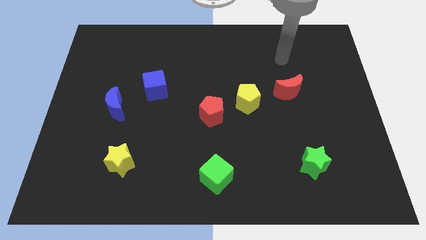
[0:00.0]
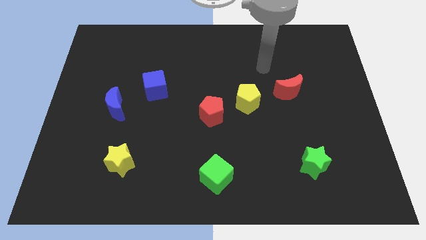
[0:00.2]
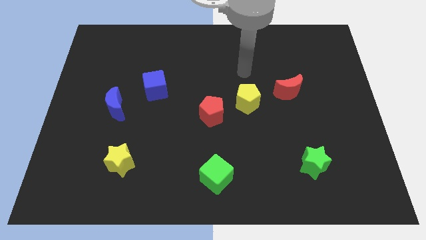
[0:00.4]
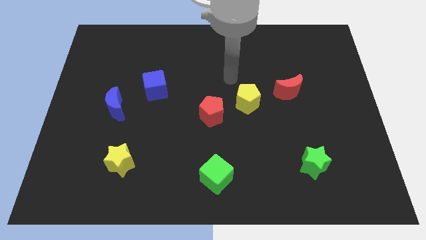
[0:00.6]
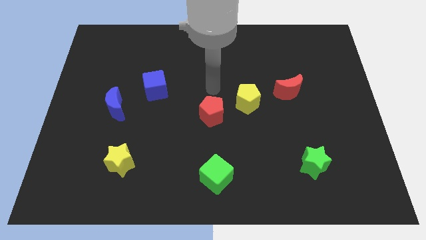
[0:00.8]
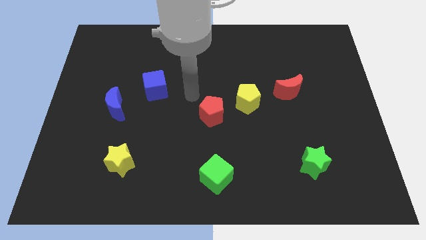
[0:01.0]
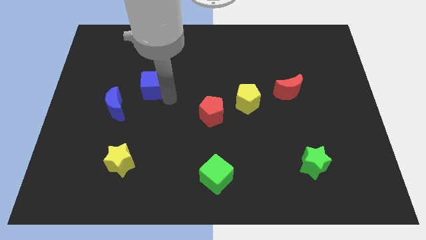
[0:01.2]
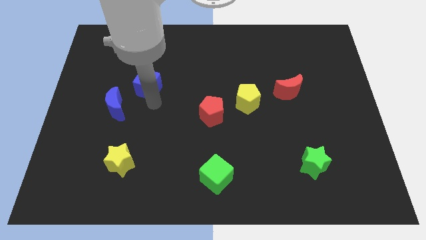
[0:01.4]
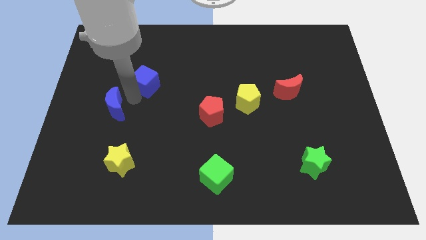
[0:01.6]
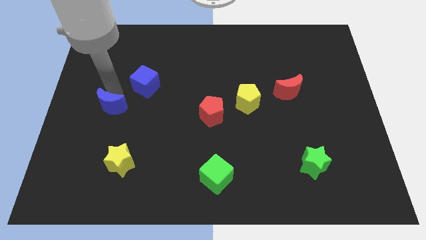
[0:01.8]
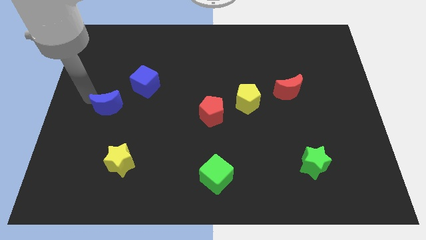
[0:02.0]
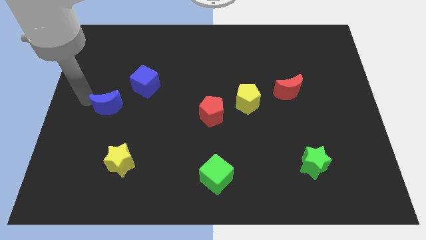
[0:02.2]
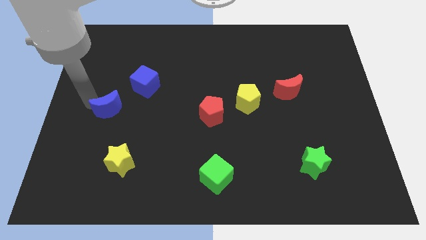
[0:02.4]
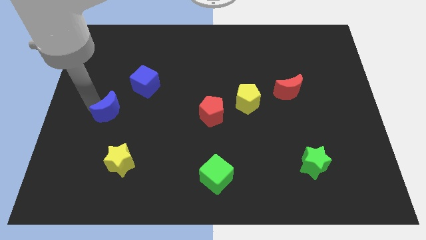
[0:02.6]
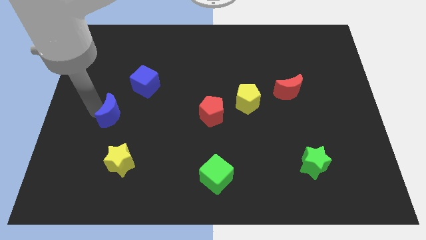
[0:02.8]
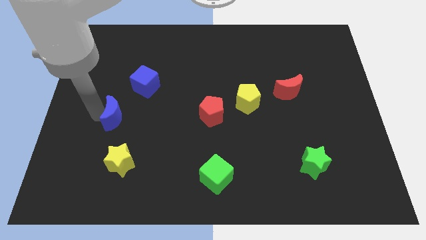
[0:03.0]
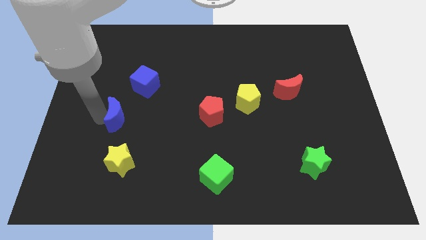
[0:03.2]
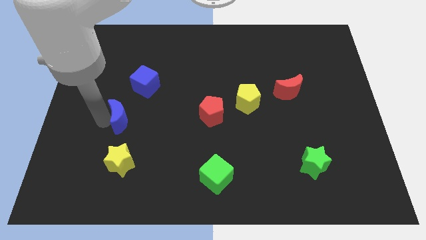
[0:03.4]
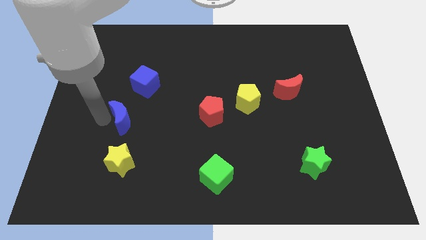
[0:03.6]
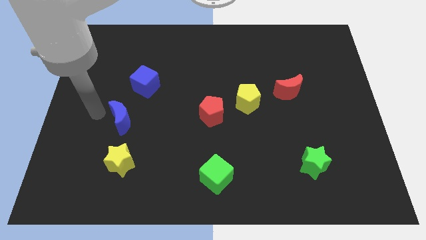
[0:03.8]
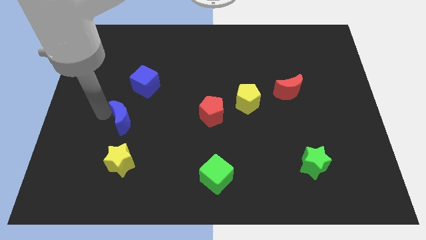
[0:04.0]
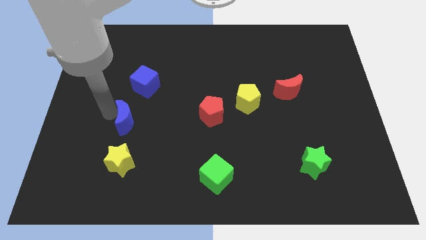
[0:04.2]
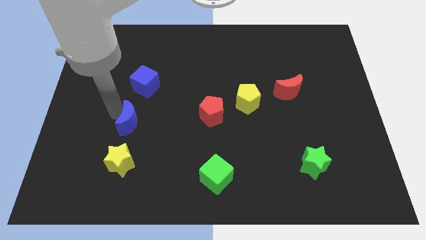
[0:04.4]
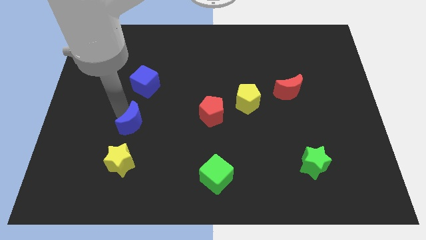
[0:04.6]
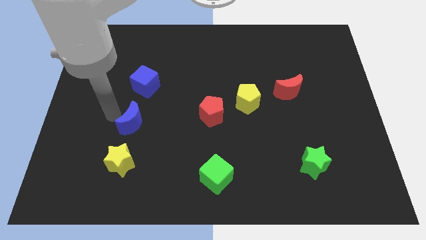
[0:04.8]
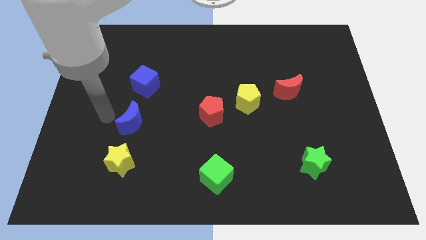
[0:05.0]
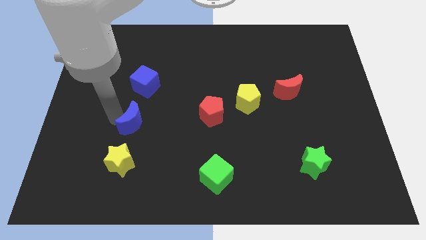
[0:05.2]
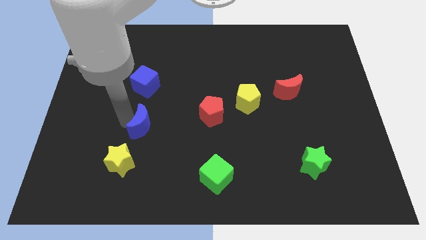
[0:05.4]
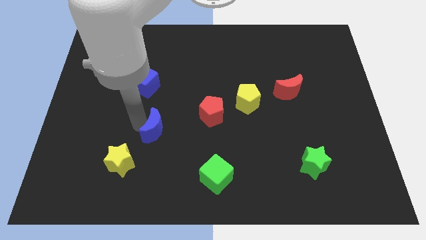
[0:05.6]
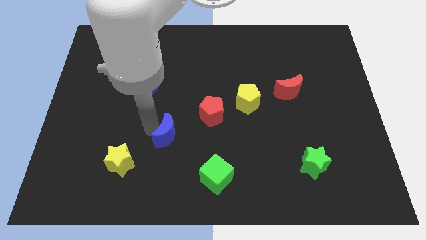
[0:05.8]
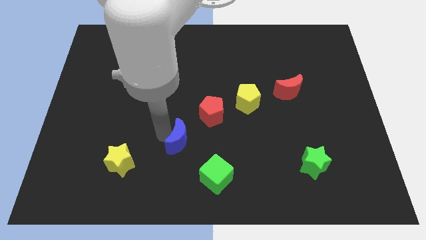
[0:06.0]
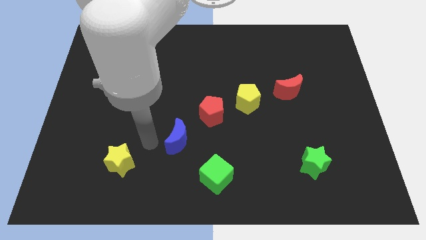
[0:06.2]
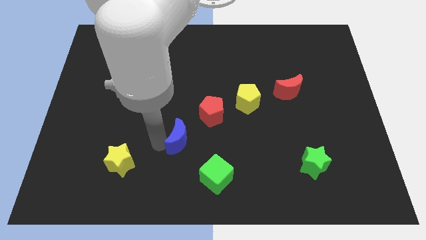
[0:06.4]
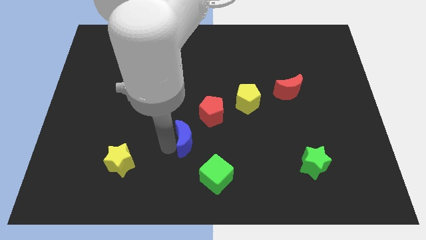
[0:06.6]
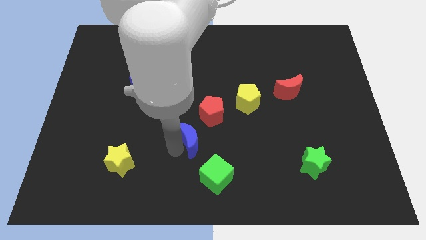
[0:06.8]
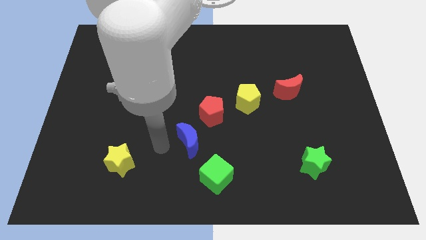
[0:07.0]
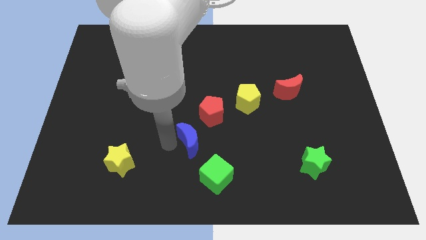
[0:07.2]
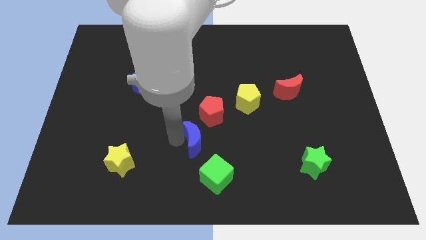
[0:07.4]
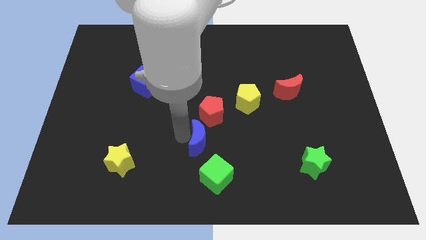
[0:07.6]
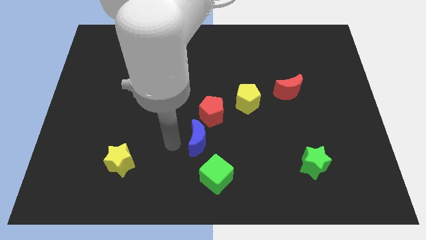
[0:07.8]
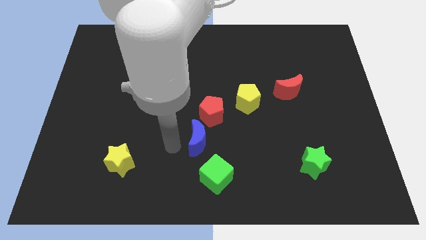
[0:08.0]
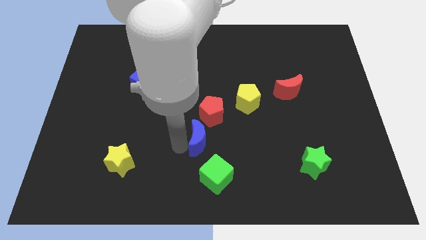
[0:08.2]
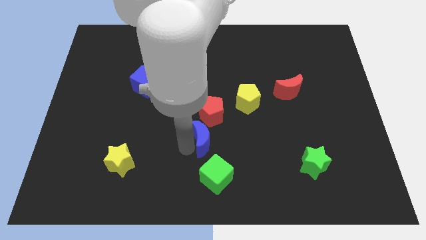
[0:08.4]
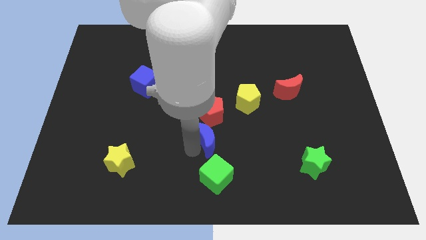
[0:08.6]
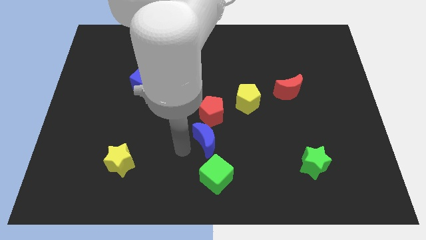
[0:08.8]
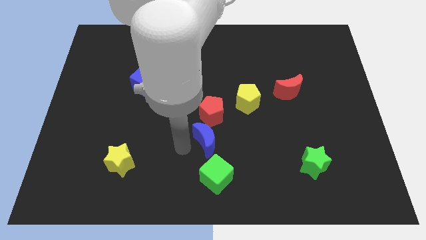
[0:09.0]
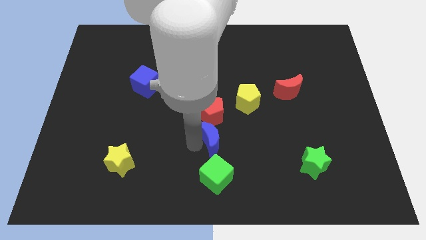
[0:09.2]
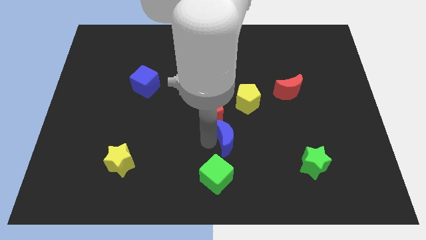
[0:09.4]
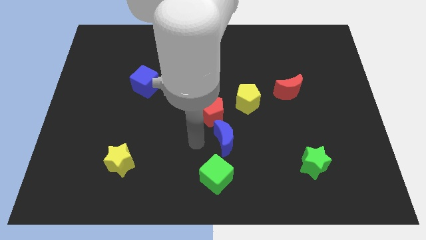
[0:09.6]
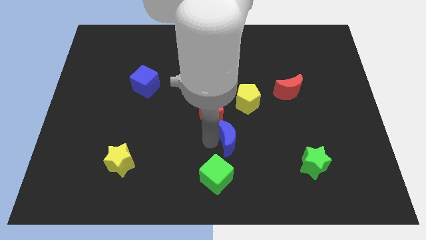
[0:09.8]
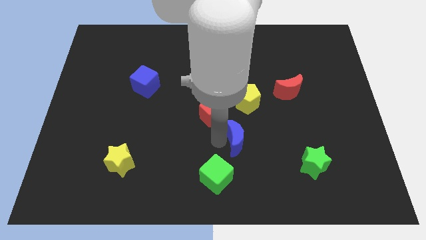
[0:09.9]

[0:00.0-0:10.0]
move the blue moon to the bottom of the yellow pentagon

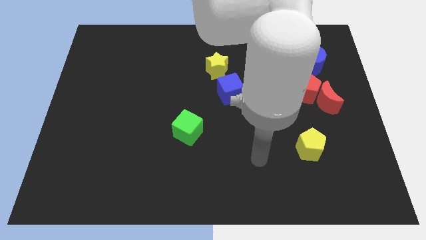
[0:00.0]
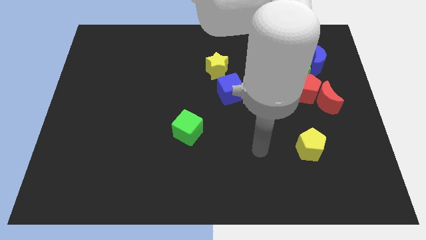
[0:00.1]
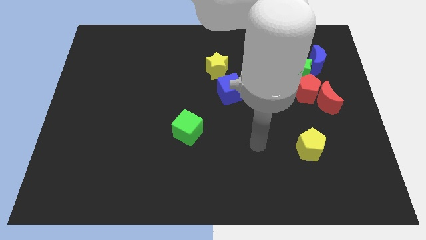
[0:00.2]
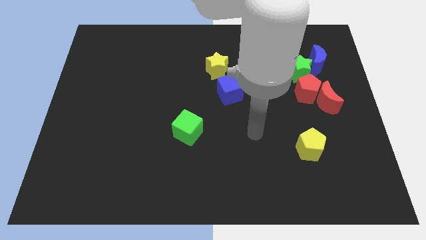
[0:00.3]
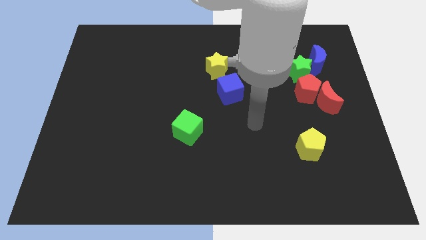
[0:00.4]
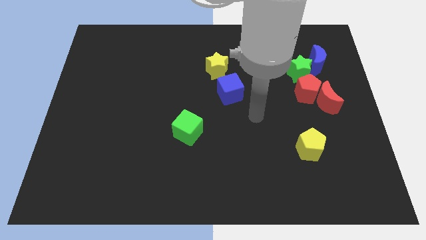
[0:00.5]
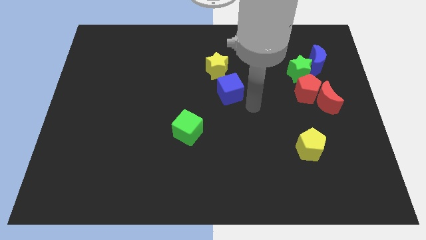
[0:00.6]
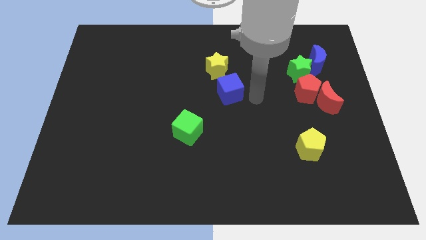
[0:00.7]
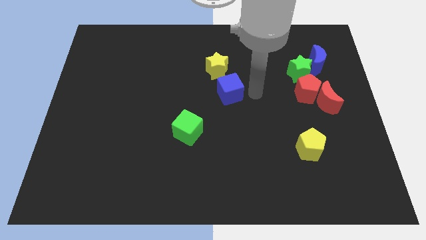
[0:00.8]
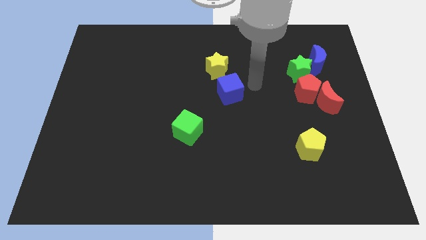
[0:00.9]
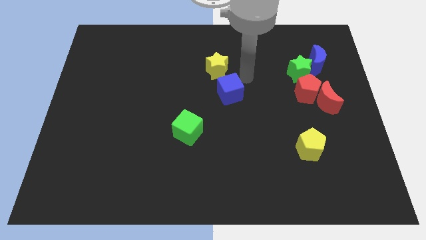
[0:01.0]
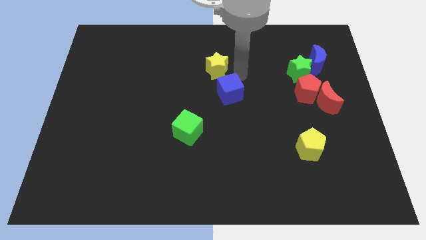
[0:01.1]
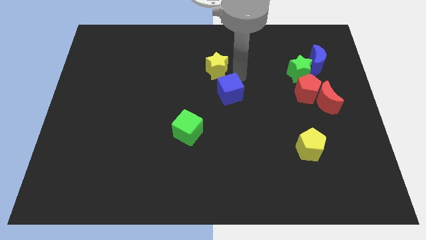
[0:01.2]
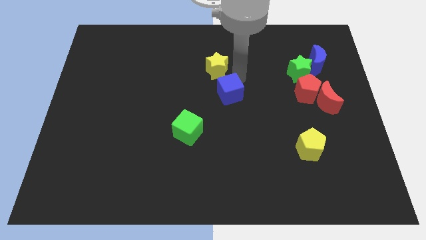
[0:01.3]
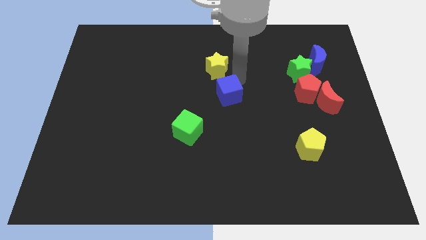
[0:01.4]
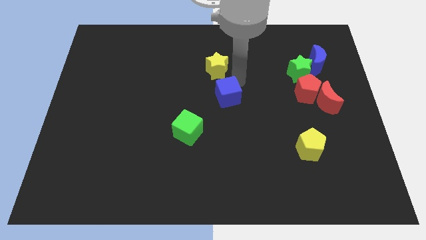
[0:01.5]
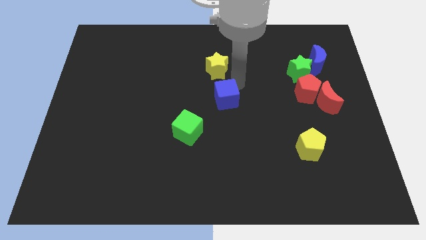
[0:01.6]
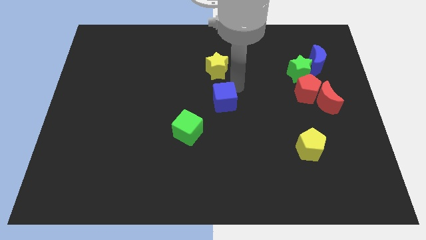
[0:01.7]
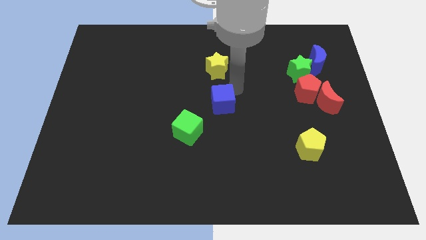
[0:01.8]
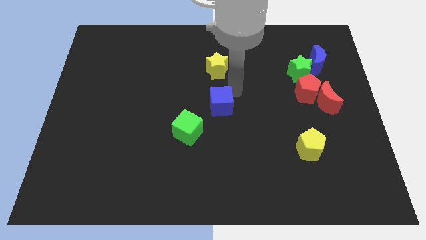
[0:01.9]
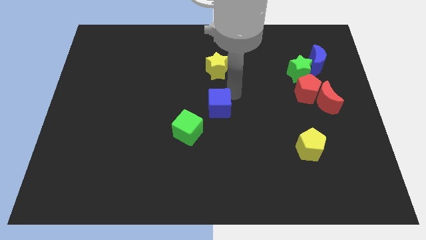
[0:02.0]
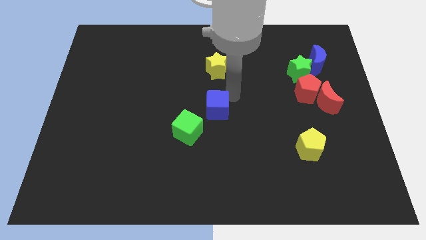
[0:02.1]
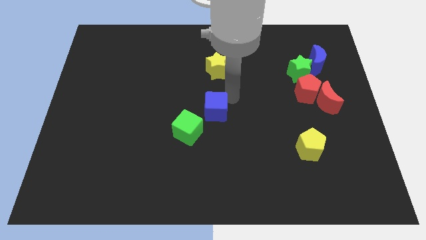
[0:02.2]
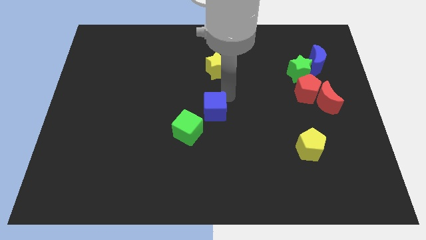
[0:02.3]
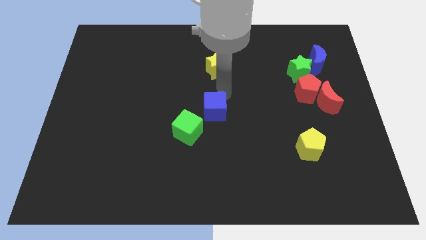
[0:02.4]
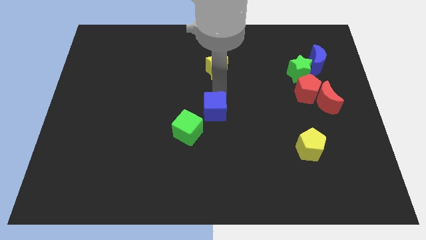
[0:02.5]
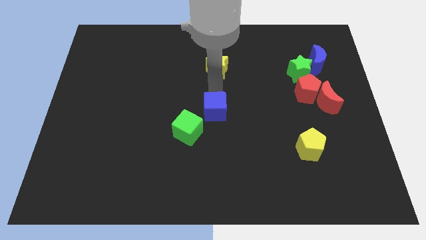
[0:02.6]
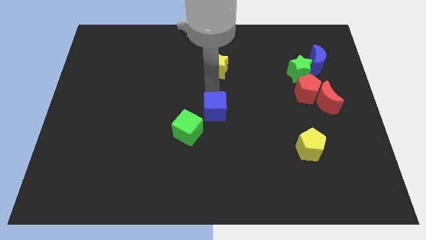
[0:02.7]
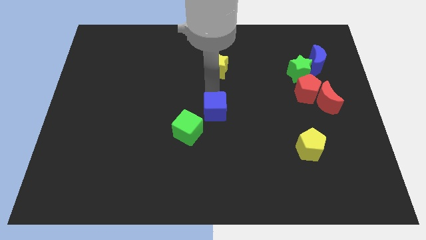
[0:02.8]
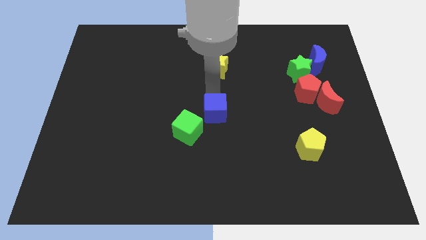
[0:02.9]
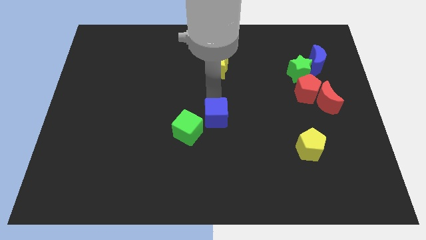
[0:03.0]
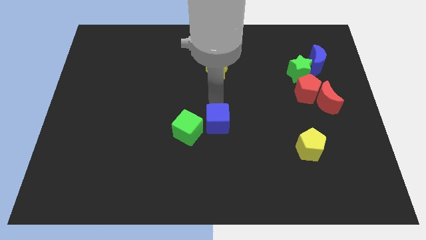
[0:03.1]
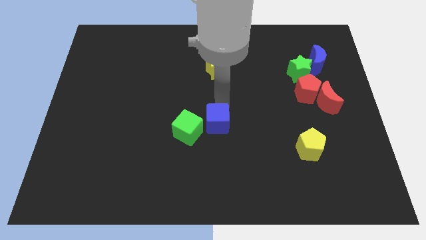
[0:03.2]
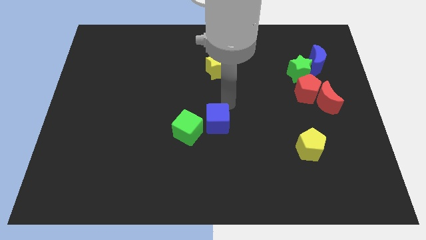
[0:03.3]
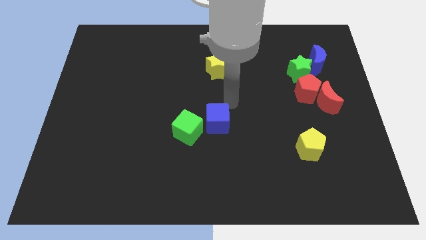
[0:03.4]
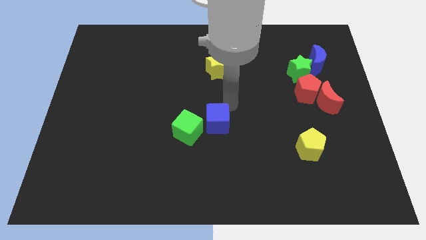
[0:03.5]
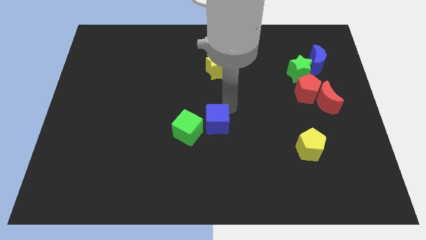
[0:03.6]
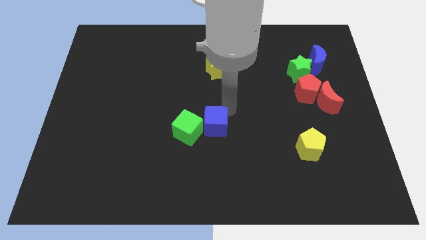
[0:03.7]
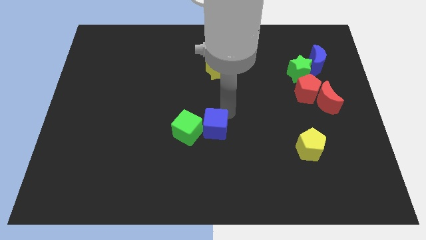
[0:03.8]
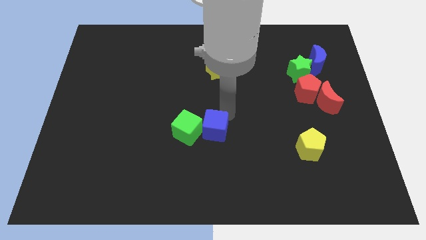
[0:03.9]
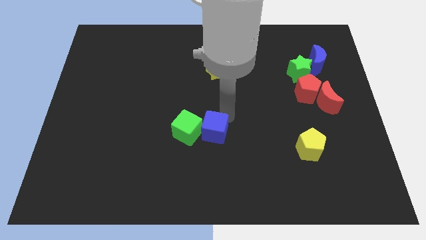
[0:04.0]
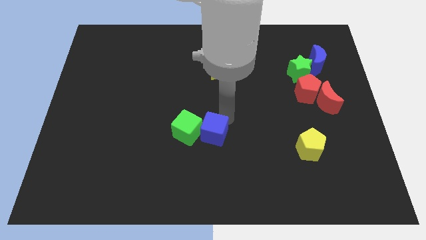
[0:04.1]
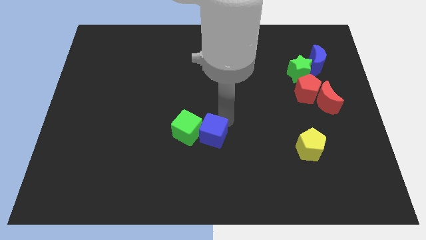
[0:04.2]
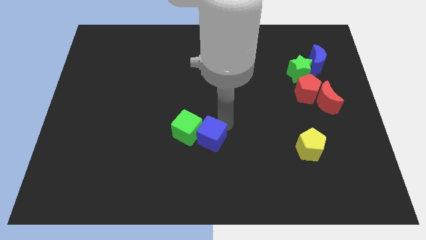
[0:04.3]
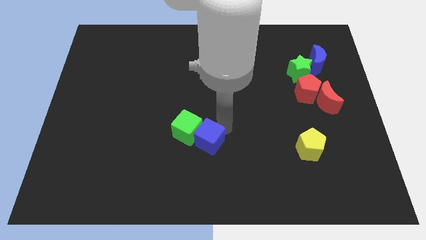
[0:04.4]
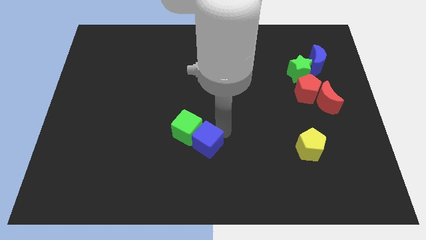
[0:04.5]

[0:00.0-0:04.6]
put the blue cube to the bottom of the green cube
